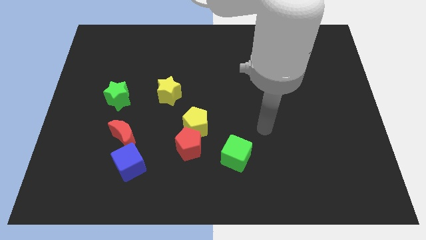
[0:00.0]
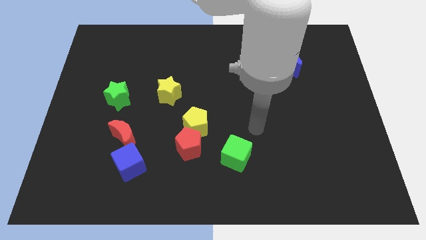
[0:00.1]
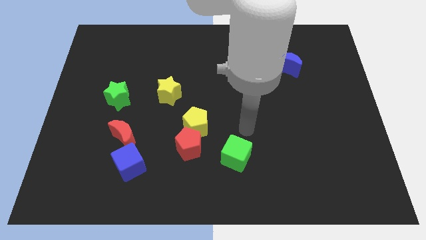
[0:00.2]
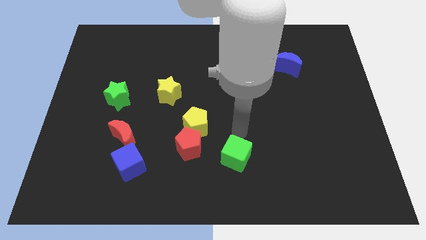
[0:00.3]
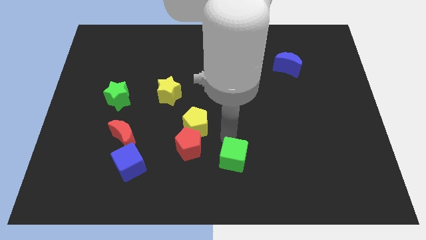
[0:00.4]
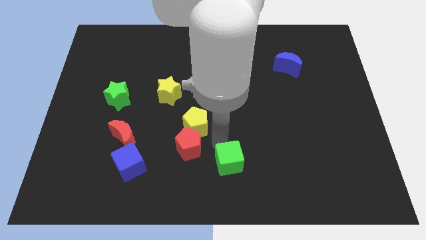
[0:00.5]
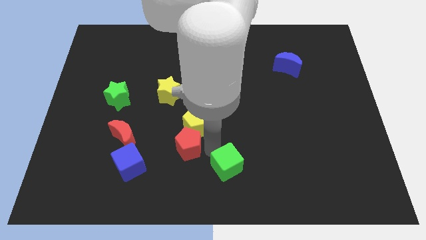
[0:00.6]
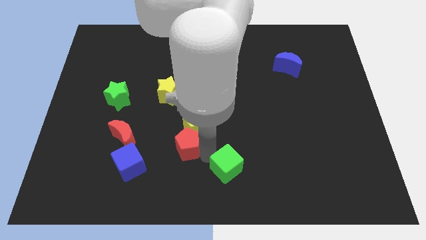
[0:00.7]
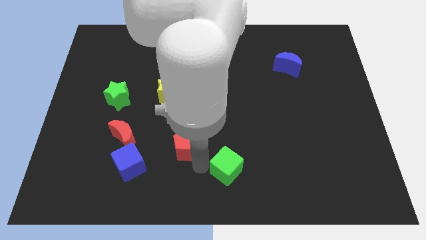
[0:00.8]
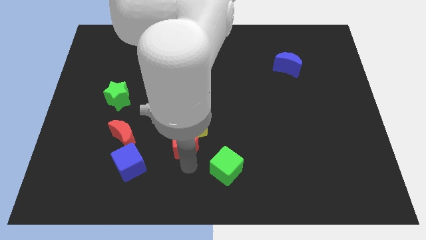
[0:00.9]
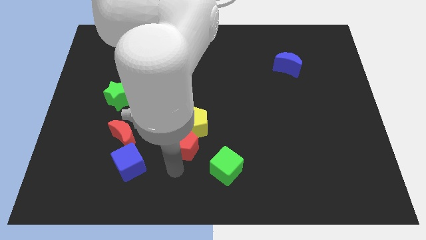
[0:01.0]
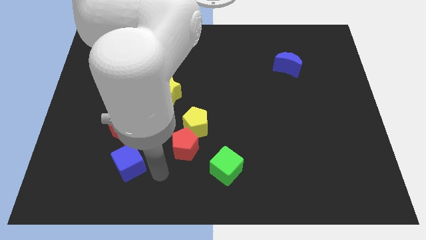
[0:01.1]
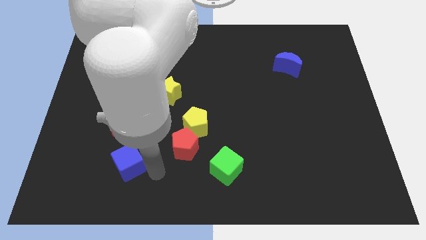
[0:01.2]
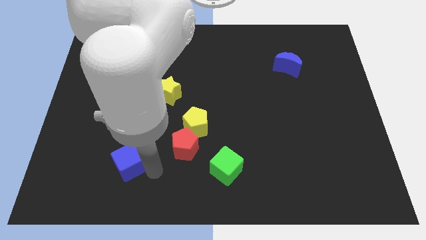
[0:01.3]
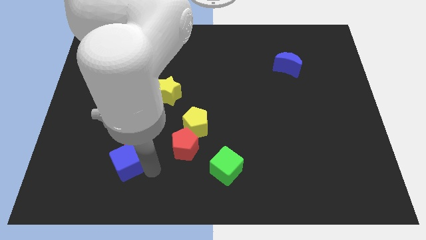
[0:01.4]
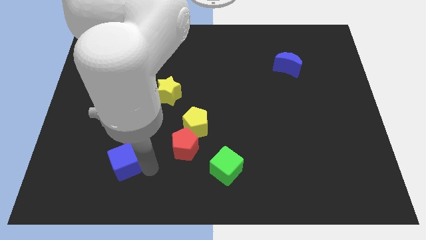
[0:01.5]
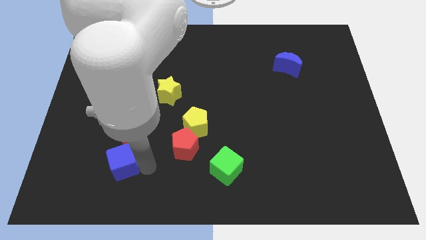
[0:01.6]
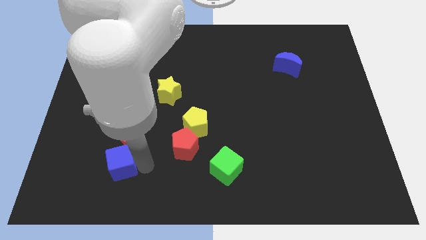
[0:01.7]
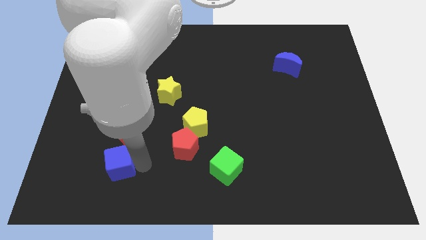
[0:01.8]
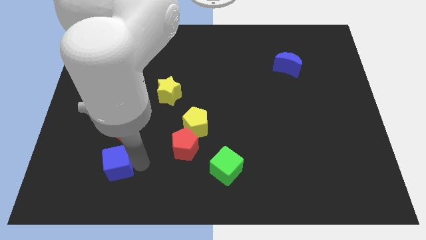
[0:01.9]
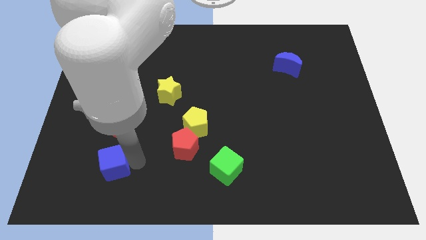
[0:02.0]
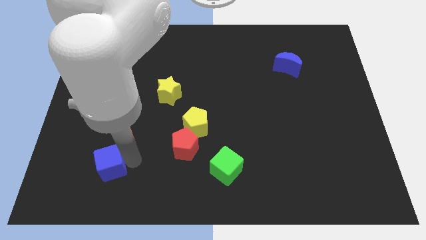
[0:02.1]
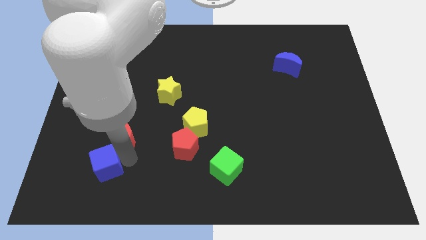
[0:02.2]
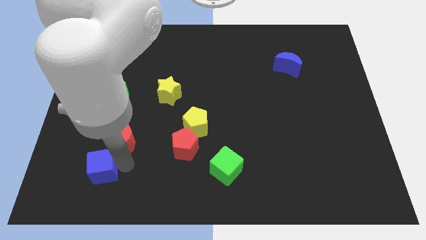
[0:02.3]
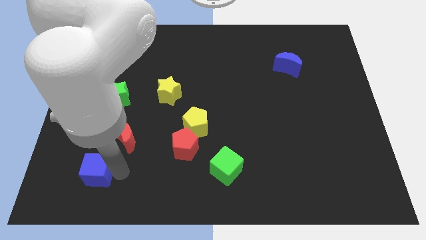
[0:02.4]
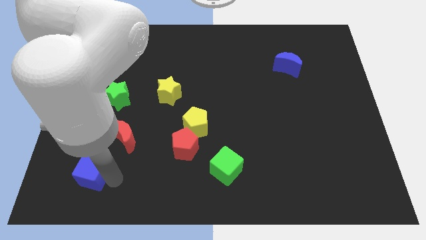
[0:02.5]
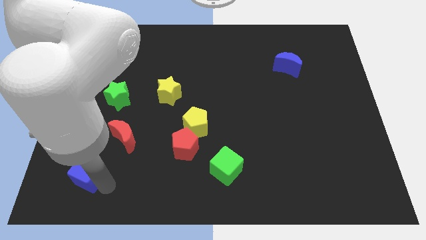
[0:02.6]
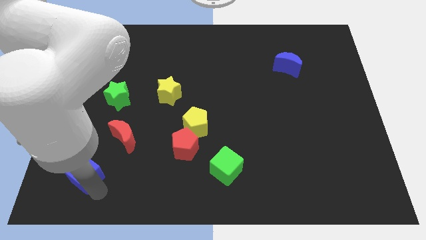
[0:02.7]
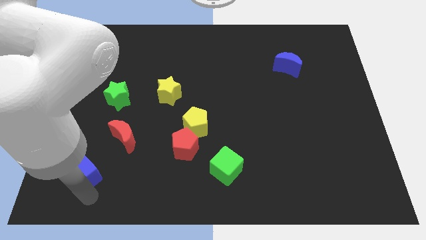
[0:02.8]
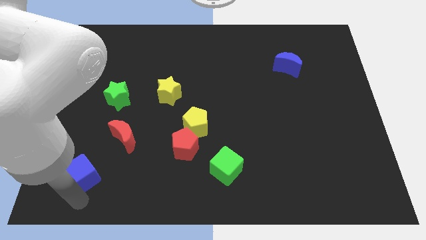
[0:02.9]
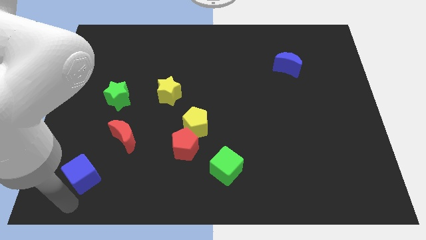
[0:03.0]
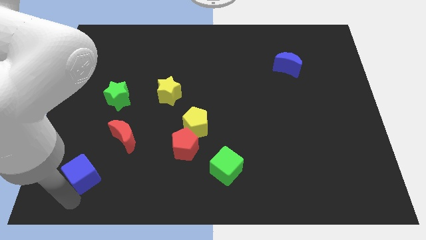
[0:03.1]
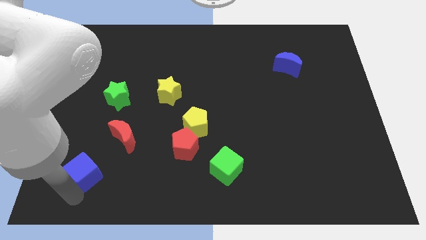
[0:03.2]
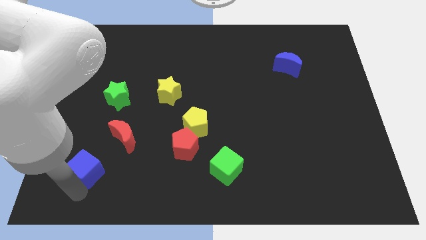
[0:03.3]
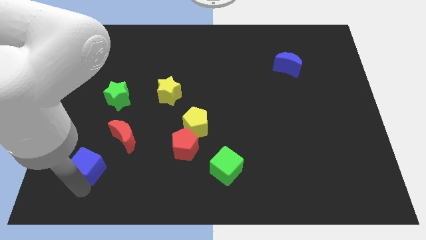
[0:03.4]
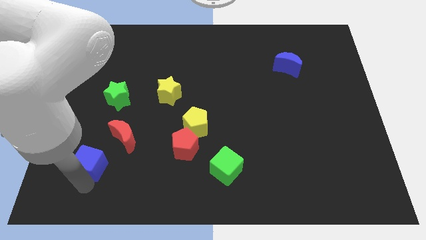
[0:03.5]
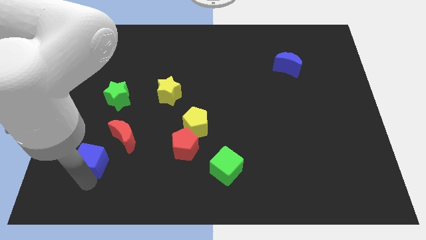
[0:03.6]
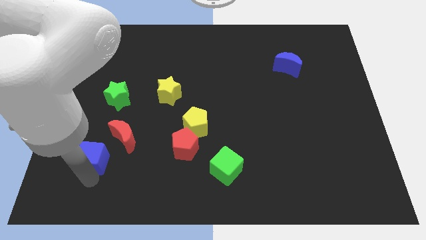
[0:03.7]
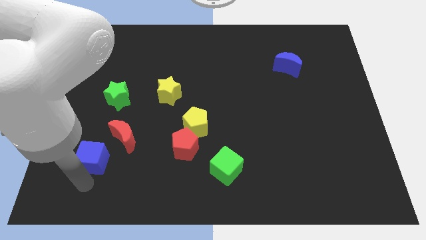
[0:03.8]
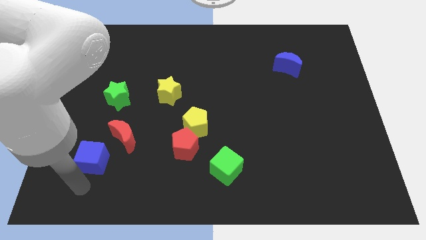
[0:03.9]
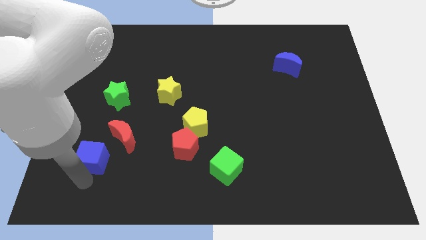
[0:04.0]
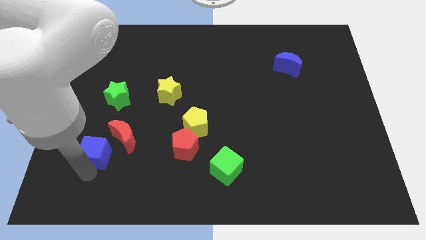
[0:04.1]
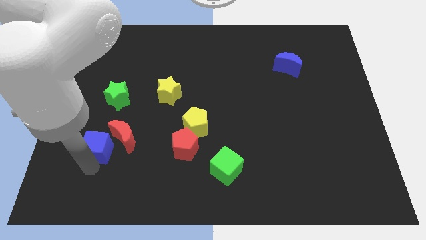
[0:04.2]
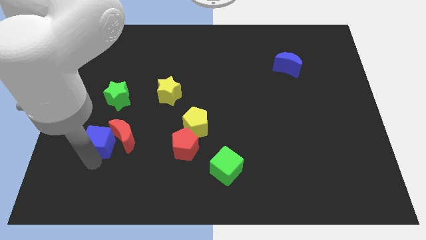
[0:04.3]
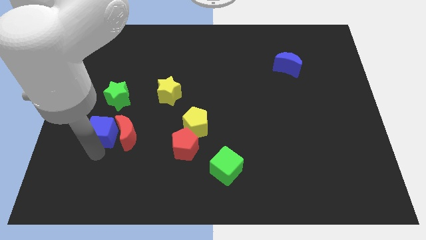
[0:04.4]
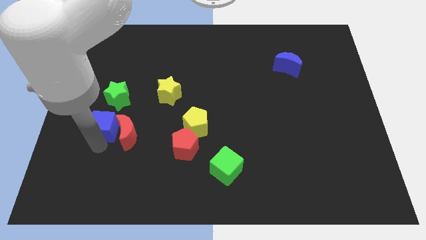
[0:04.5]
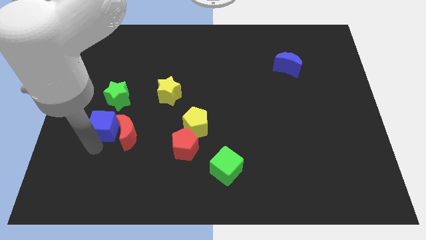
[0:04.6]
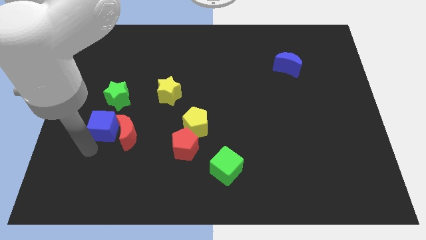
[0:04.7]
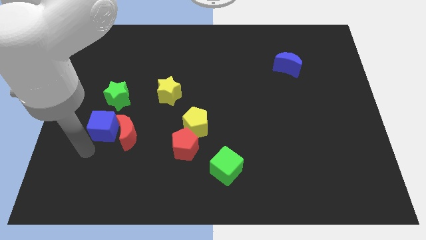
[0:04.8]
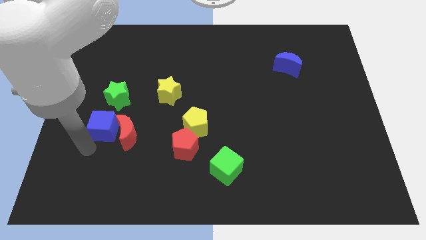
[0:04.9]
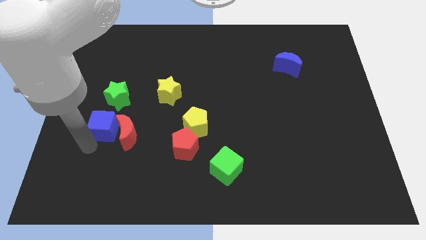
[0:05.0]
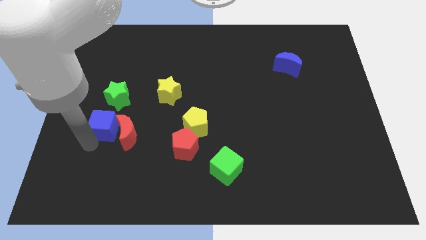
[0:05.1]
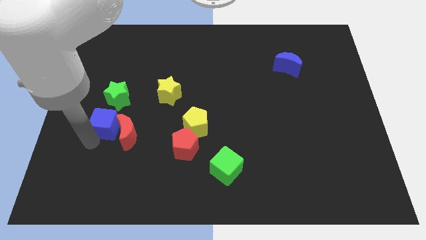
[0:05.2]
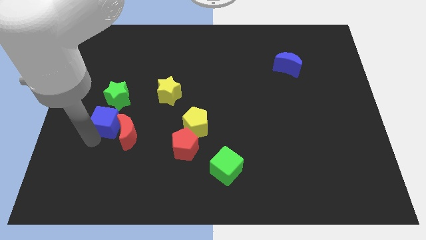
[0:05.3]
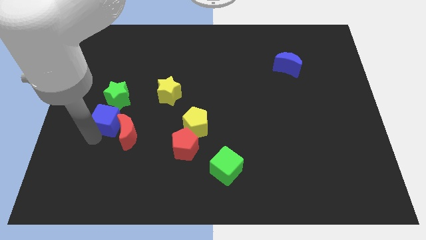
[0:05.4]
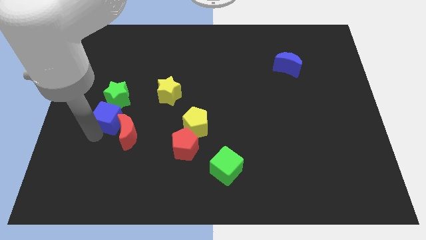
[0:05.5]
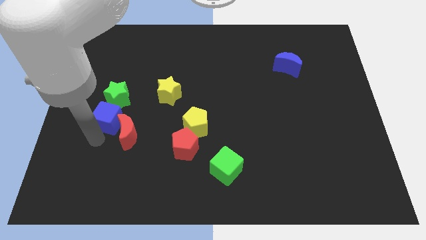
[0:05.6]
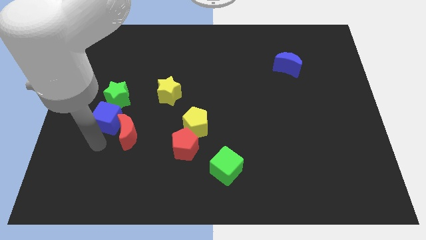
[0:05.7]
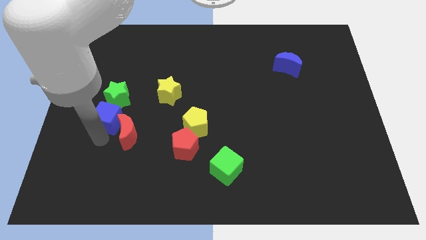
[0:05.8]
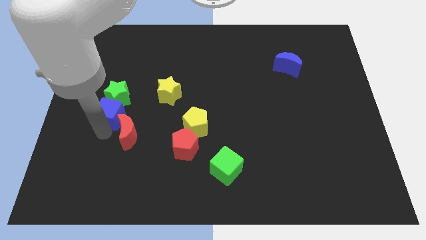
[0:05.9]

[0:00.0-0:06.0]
put the blue cube next to the green star

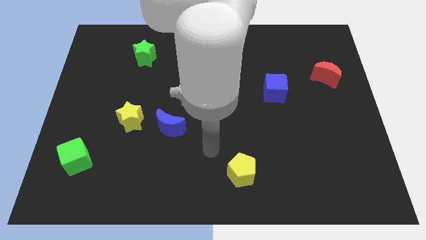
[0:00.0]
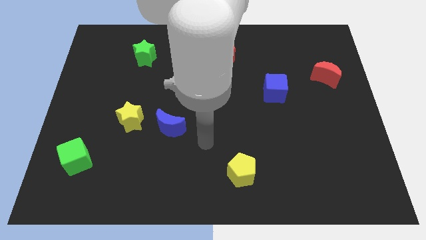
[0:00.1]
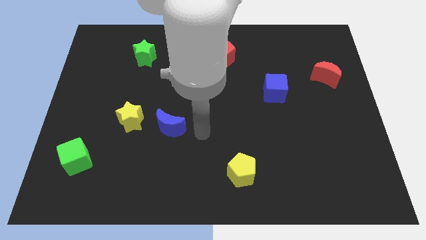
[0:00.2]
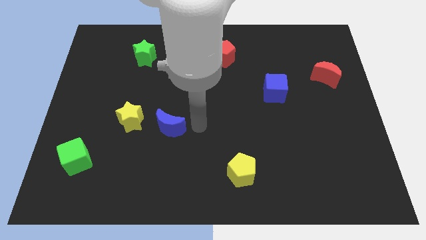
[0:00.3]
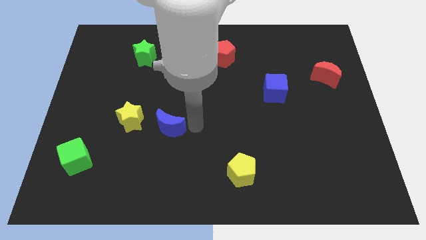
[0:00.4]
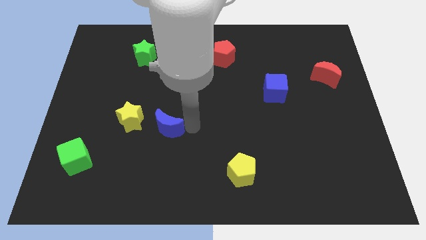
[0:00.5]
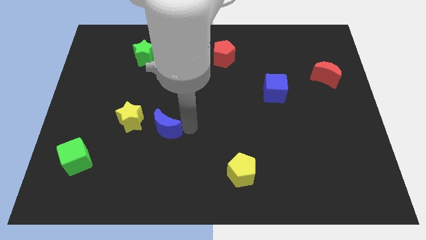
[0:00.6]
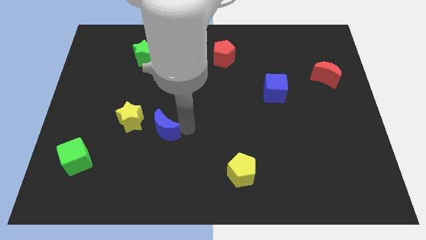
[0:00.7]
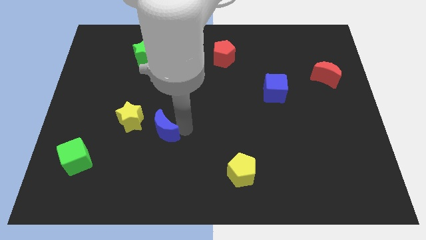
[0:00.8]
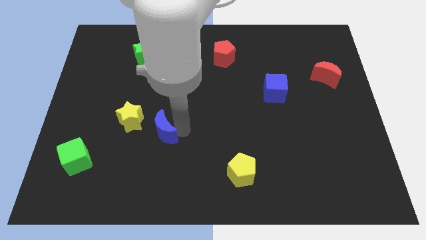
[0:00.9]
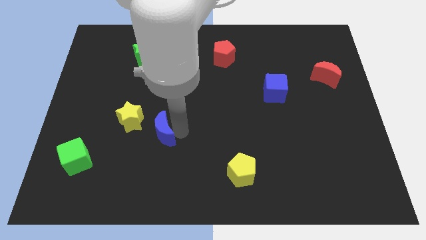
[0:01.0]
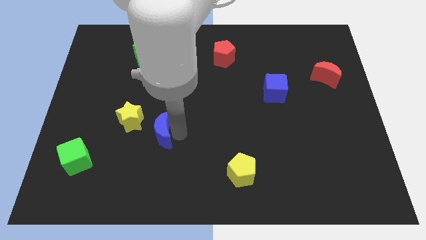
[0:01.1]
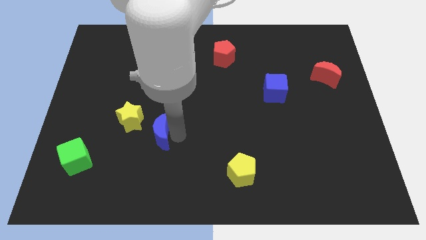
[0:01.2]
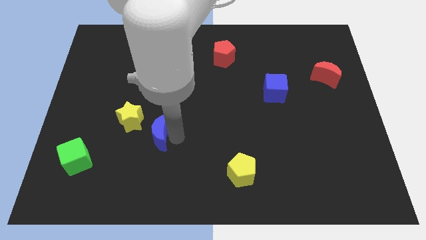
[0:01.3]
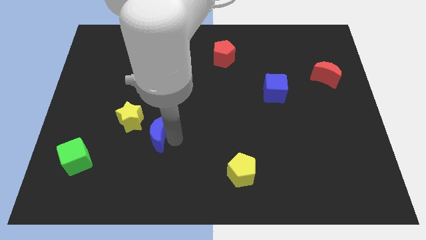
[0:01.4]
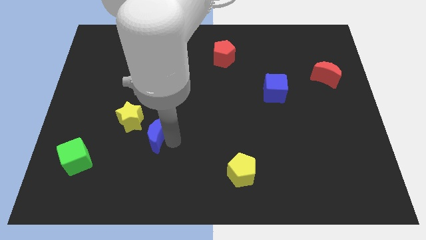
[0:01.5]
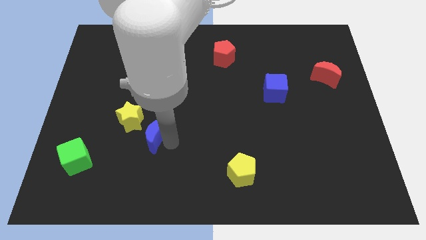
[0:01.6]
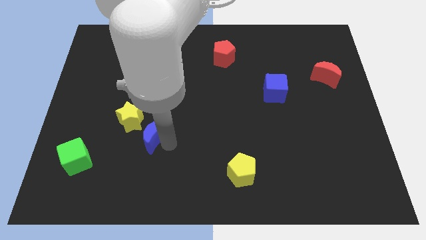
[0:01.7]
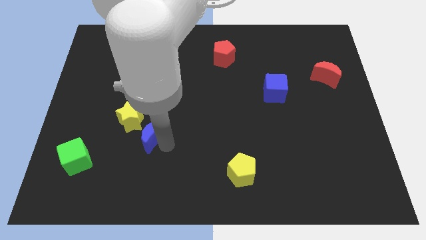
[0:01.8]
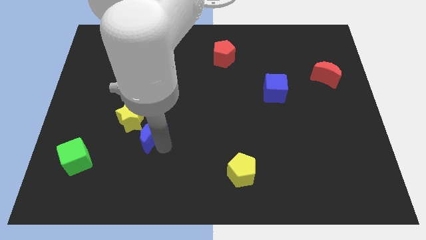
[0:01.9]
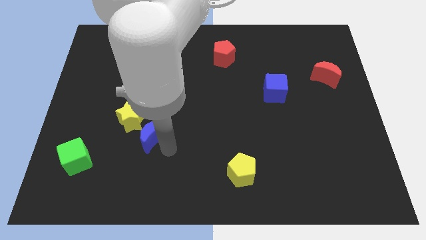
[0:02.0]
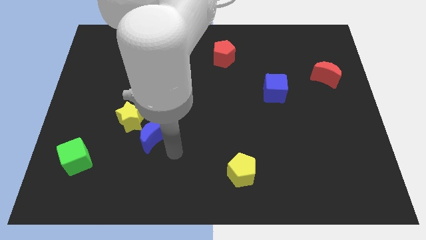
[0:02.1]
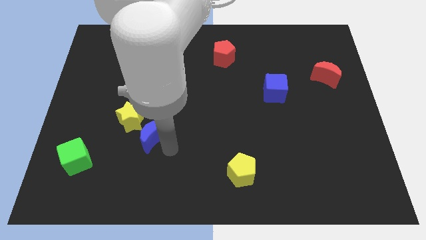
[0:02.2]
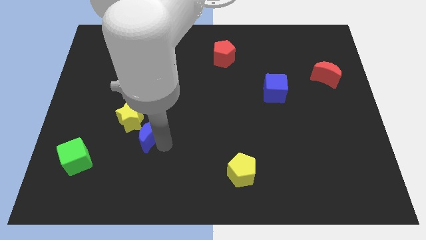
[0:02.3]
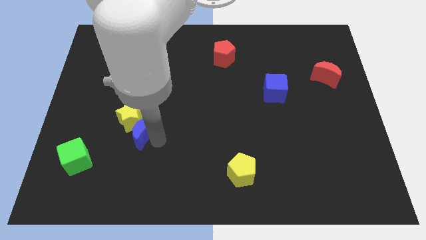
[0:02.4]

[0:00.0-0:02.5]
slide the blue moon towards the yellow star
